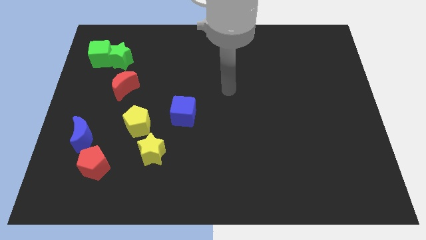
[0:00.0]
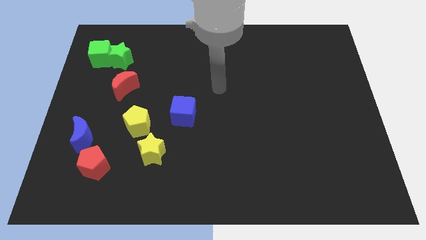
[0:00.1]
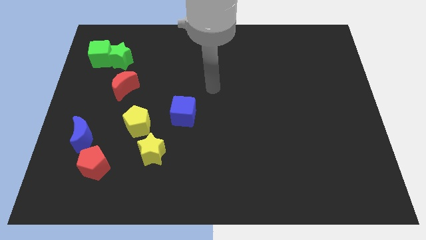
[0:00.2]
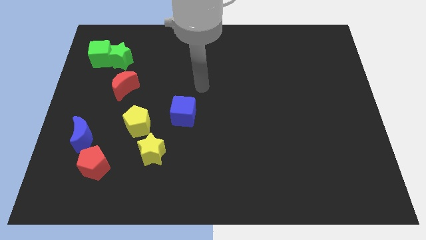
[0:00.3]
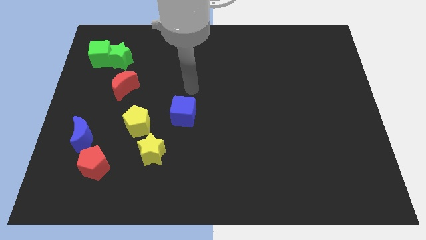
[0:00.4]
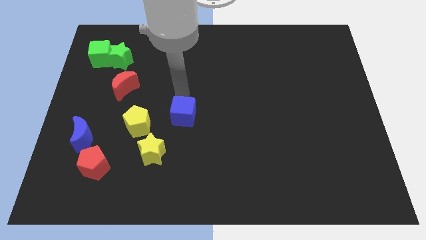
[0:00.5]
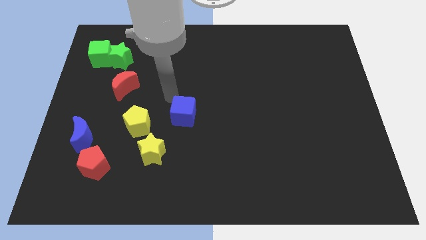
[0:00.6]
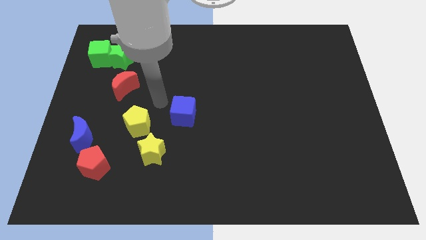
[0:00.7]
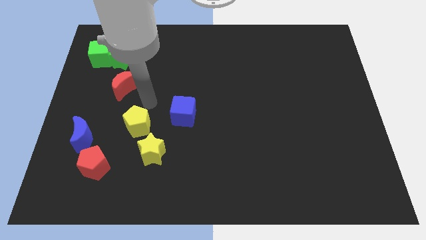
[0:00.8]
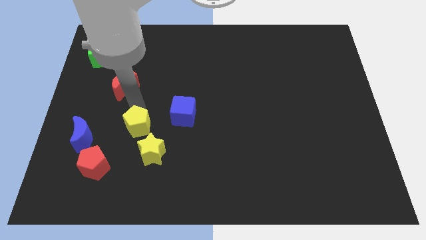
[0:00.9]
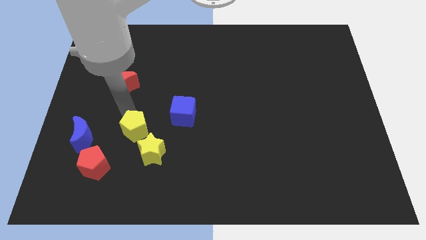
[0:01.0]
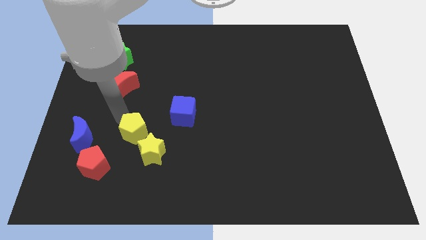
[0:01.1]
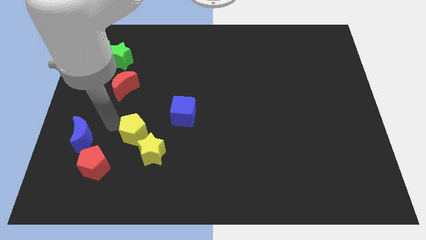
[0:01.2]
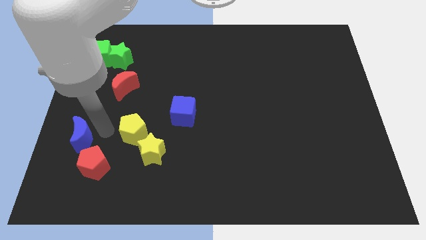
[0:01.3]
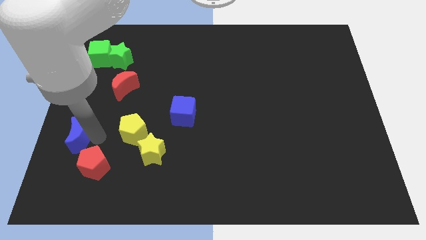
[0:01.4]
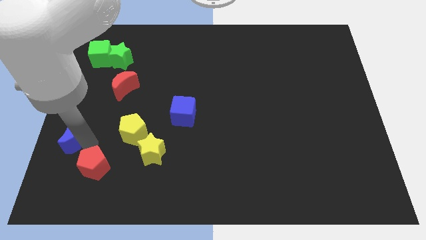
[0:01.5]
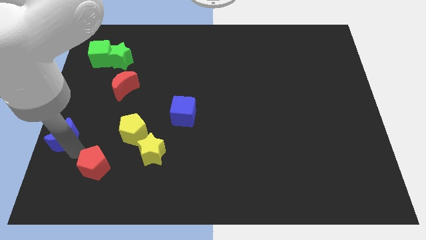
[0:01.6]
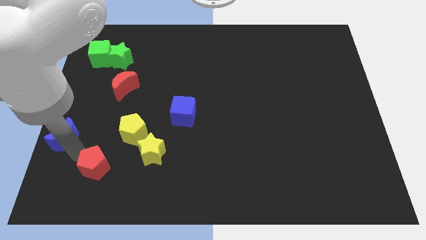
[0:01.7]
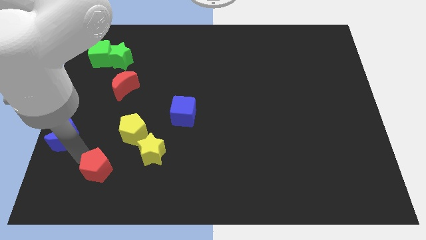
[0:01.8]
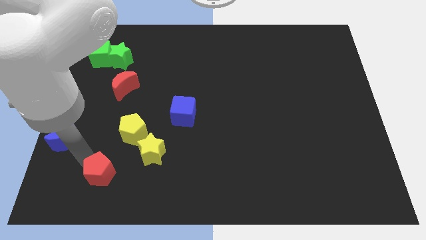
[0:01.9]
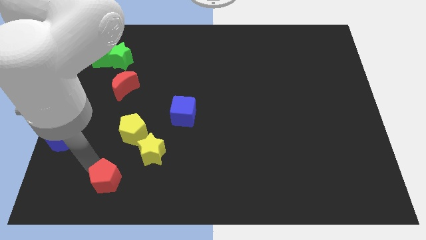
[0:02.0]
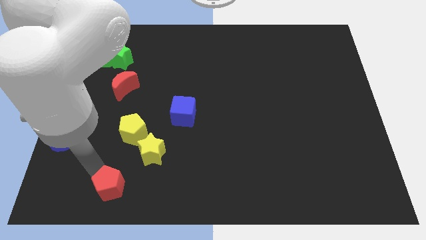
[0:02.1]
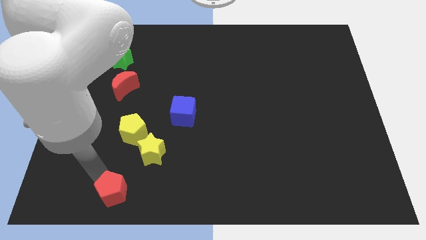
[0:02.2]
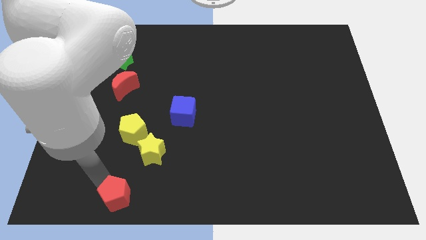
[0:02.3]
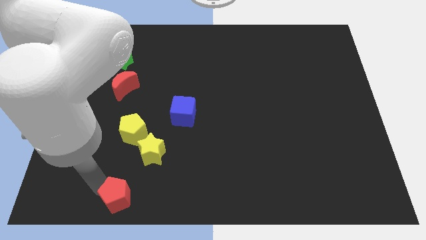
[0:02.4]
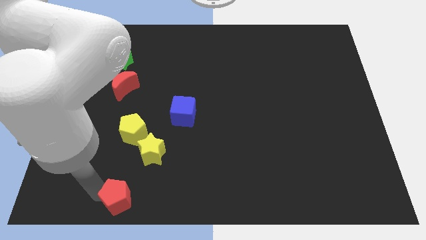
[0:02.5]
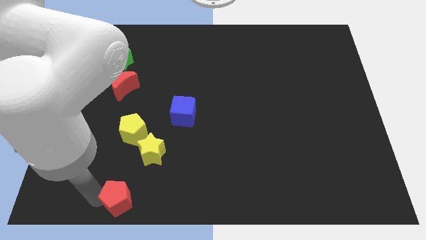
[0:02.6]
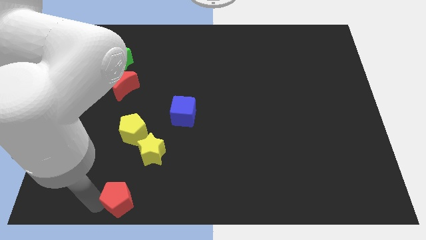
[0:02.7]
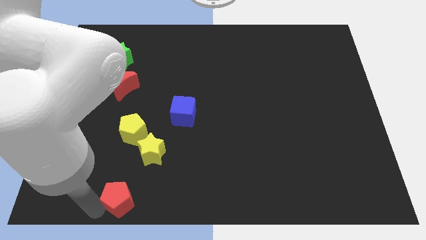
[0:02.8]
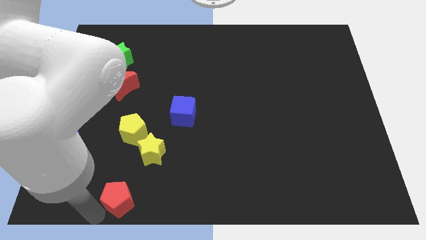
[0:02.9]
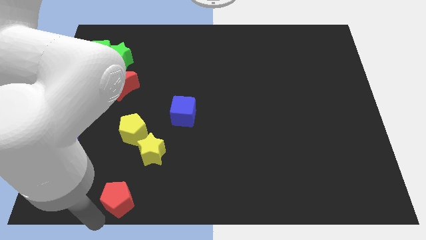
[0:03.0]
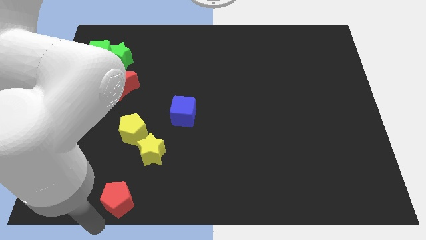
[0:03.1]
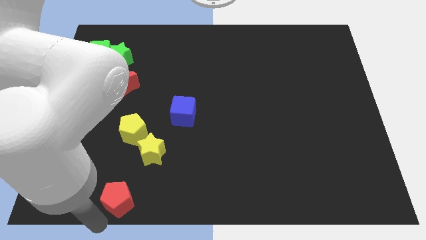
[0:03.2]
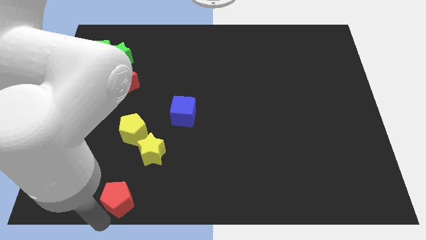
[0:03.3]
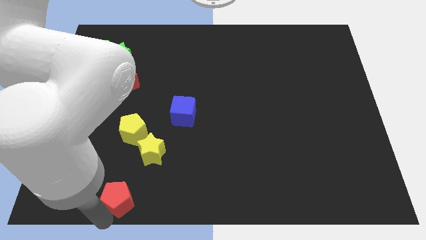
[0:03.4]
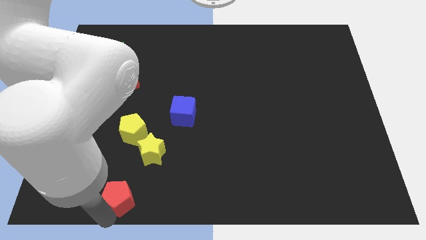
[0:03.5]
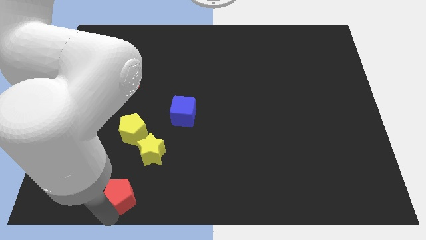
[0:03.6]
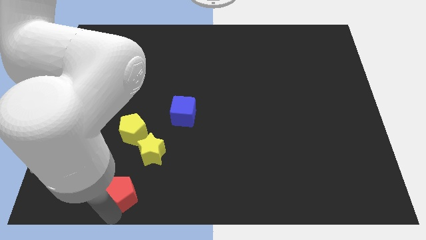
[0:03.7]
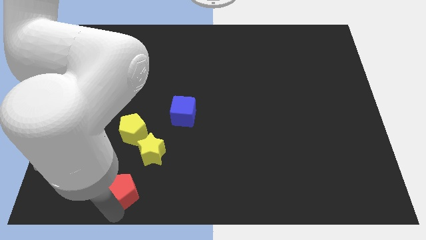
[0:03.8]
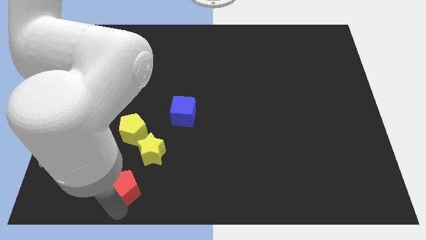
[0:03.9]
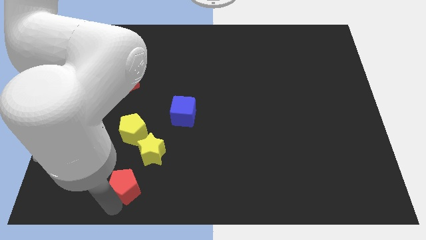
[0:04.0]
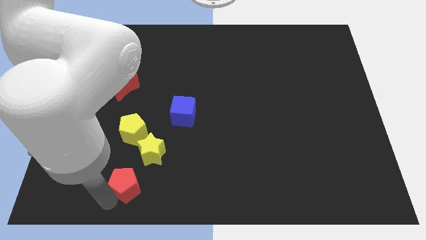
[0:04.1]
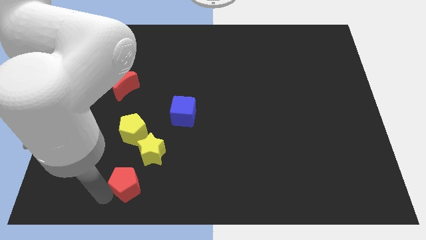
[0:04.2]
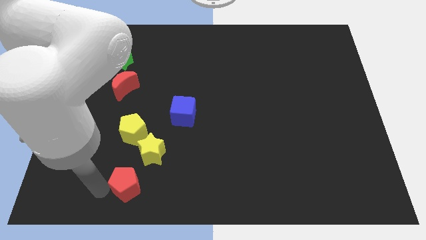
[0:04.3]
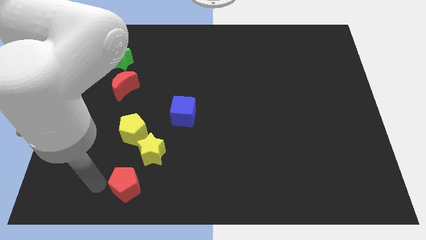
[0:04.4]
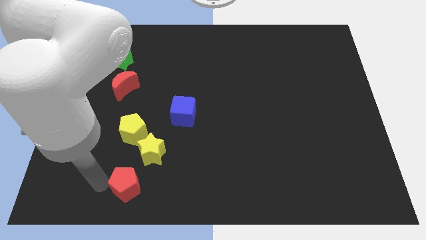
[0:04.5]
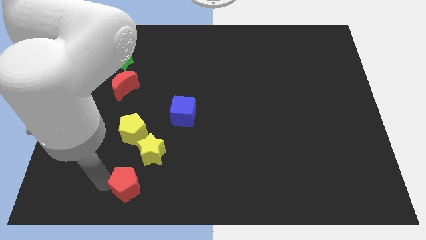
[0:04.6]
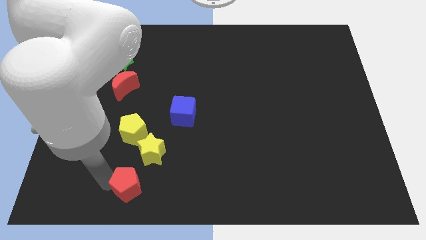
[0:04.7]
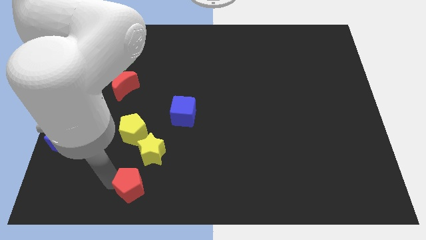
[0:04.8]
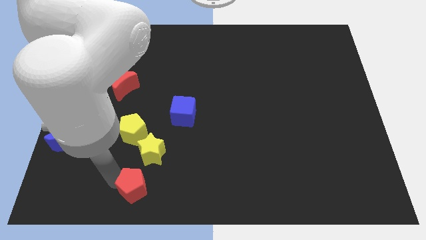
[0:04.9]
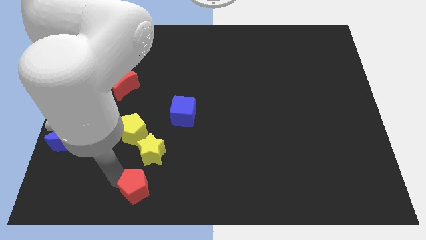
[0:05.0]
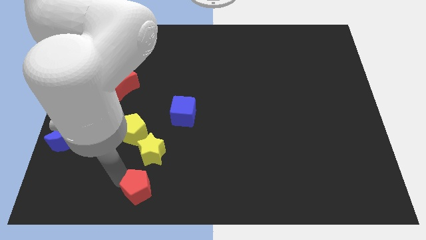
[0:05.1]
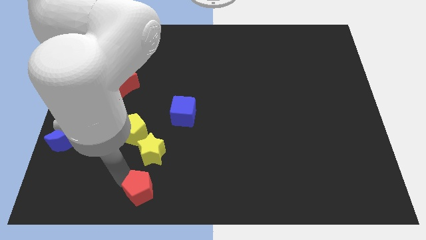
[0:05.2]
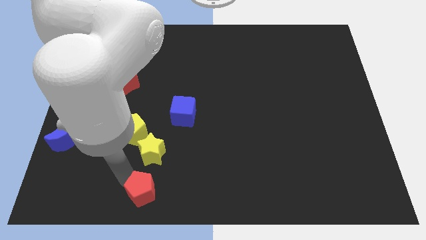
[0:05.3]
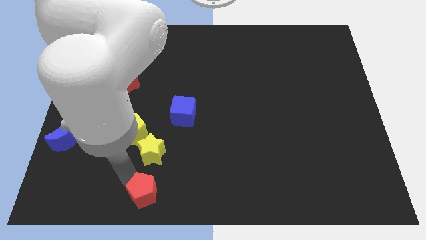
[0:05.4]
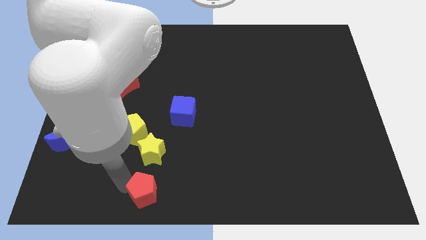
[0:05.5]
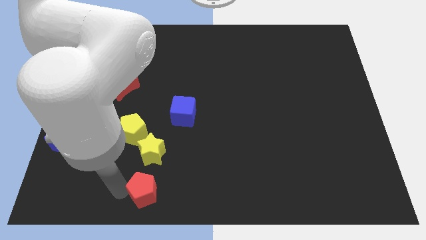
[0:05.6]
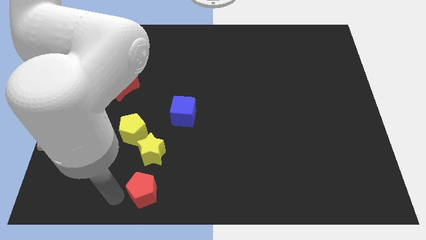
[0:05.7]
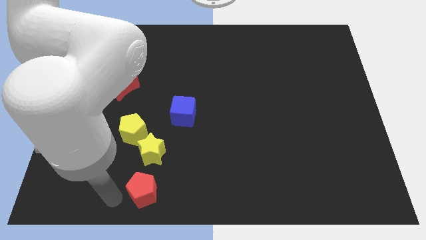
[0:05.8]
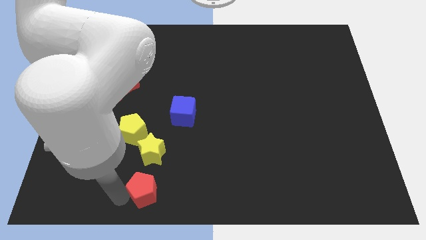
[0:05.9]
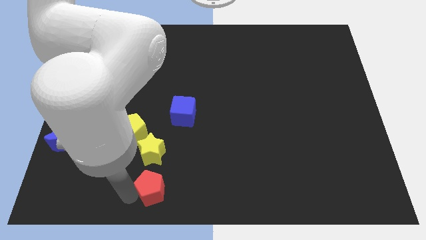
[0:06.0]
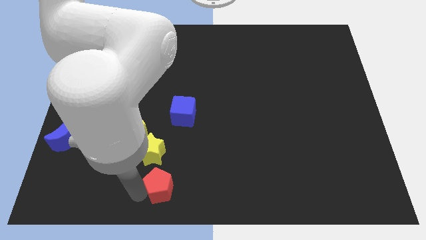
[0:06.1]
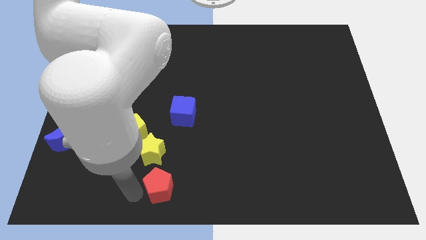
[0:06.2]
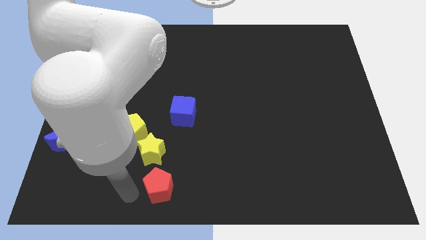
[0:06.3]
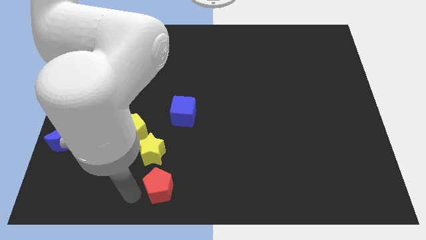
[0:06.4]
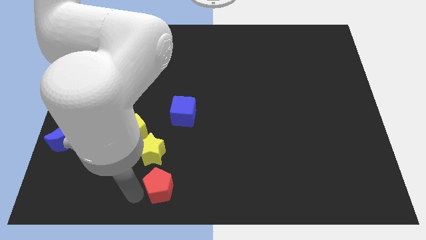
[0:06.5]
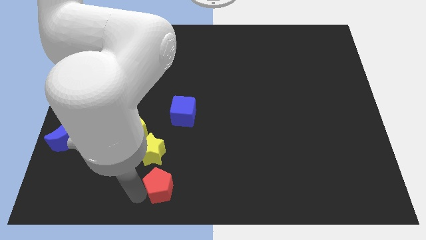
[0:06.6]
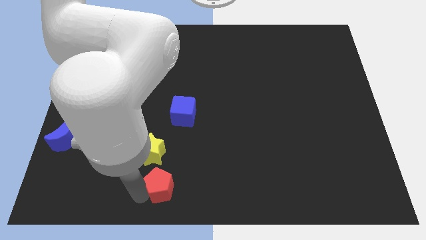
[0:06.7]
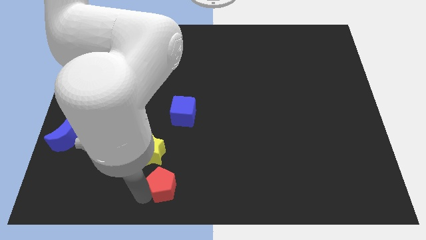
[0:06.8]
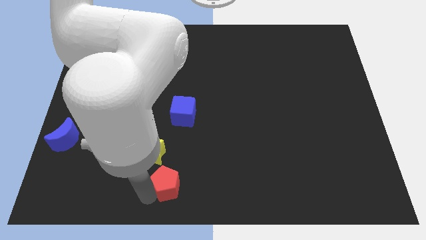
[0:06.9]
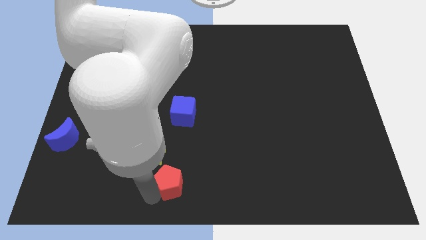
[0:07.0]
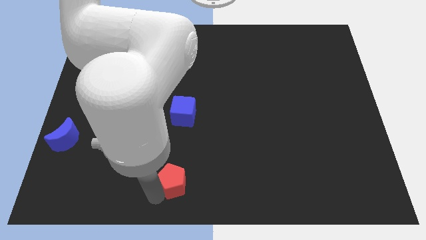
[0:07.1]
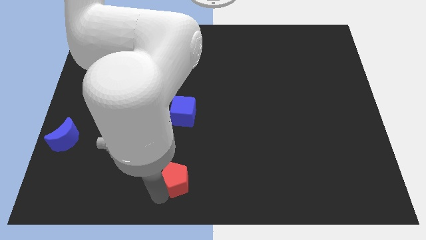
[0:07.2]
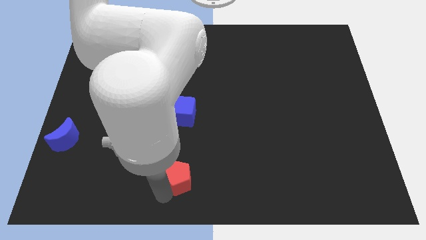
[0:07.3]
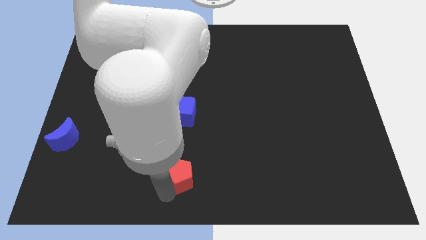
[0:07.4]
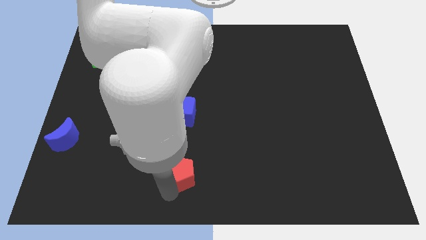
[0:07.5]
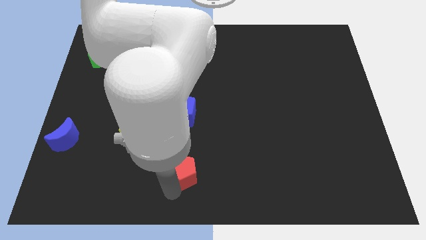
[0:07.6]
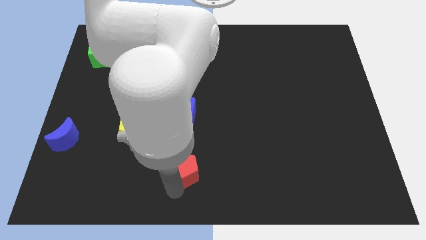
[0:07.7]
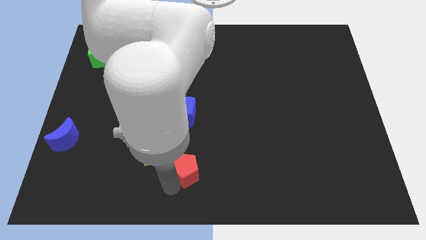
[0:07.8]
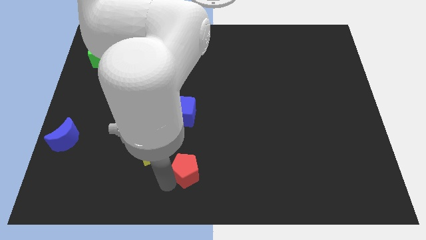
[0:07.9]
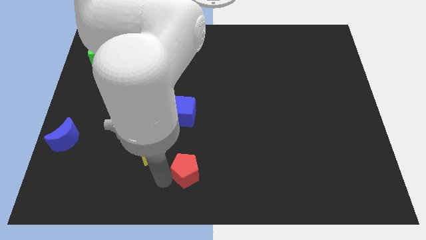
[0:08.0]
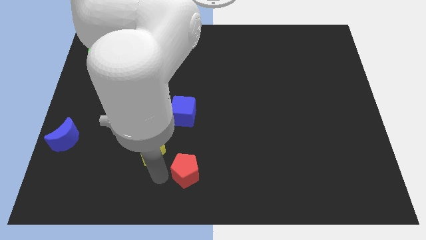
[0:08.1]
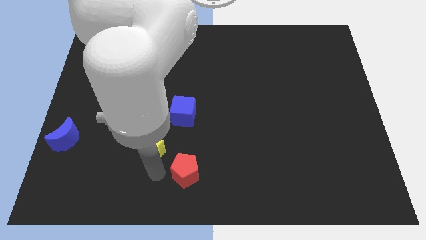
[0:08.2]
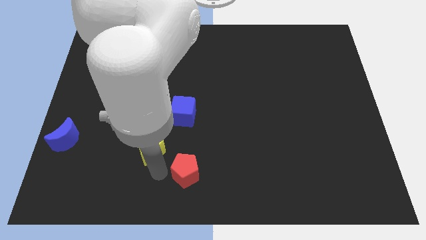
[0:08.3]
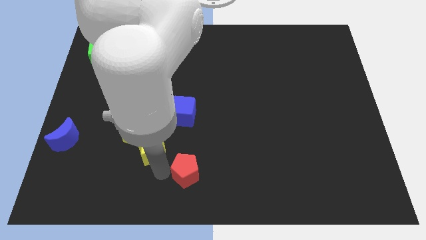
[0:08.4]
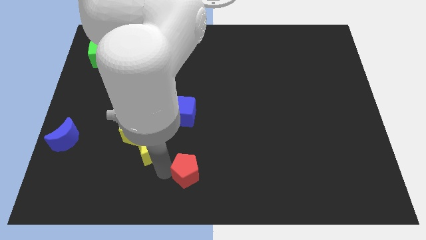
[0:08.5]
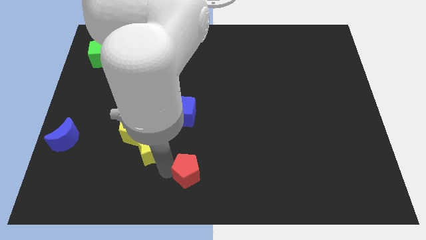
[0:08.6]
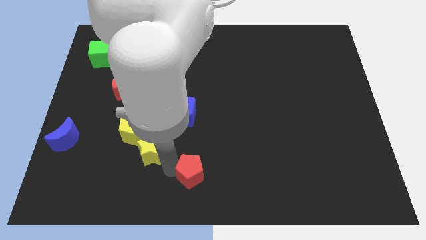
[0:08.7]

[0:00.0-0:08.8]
slide the red pentagon right
